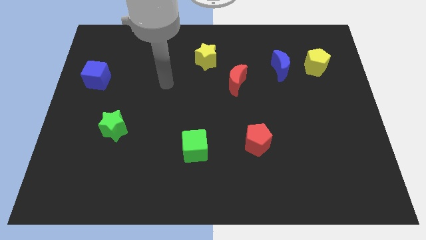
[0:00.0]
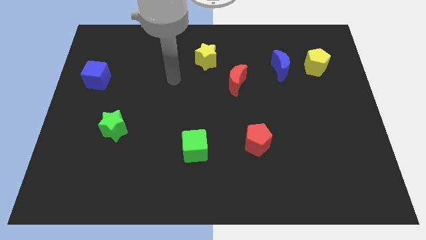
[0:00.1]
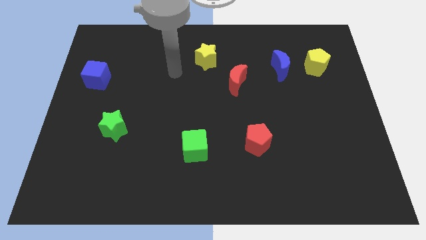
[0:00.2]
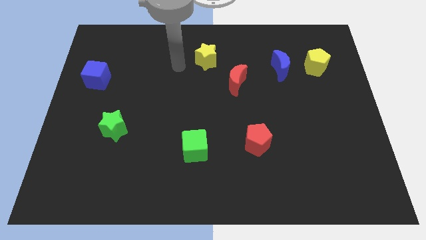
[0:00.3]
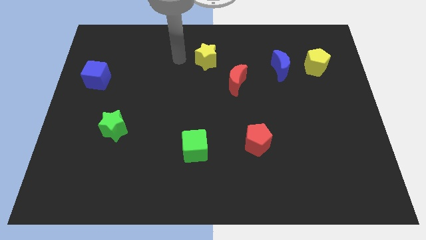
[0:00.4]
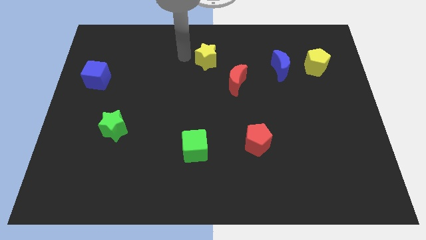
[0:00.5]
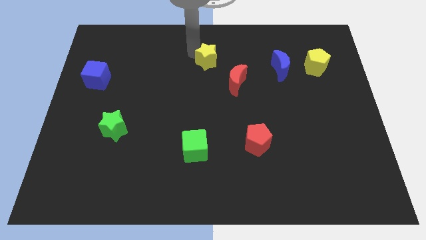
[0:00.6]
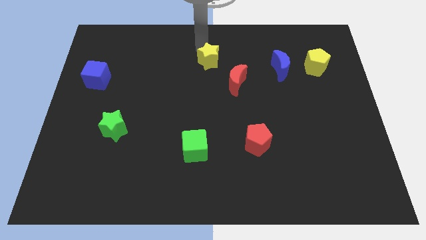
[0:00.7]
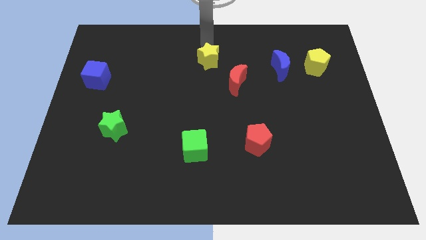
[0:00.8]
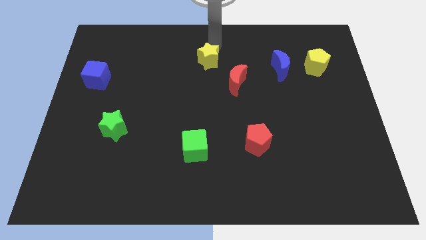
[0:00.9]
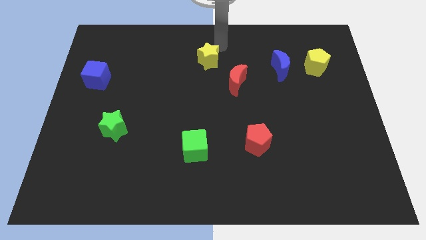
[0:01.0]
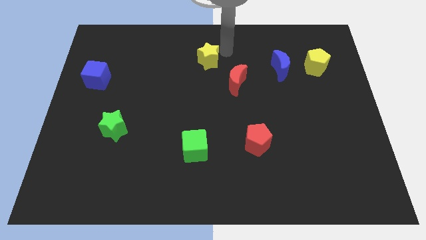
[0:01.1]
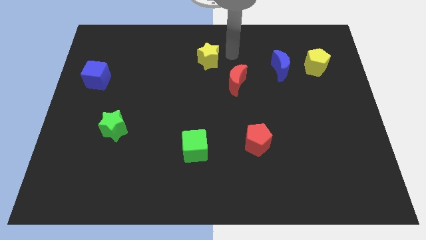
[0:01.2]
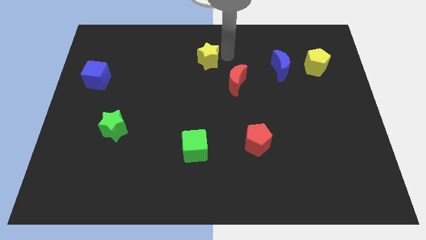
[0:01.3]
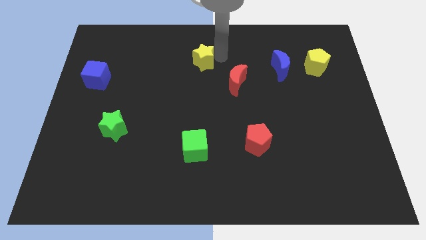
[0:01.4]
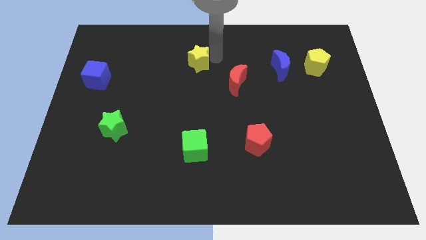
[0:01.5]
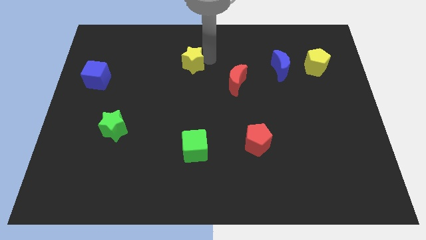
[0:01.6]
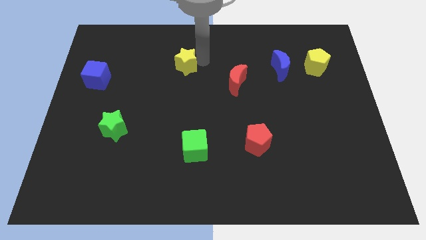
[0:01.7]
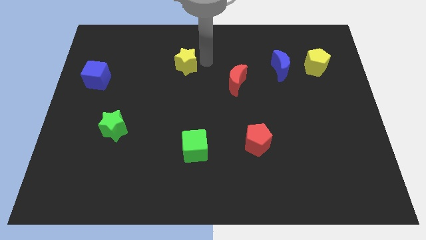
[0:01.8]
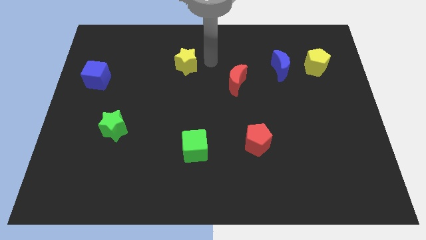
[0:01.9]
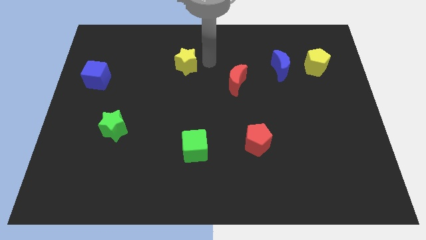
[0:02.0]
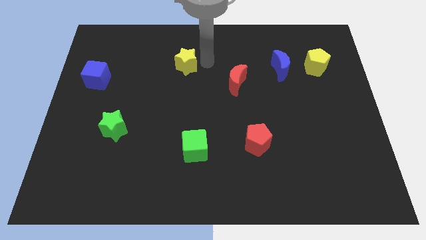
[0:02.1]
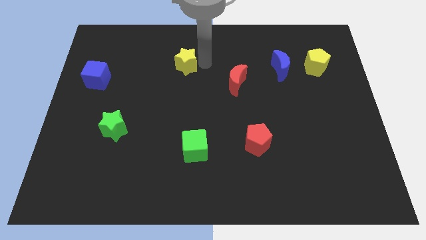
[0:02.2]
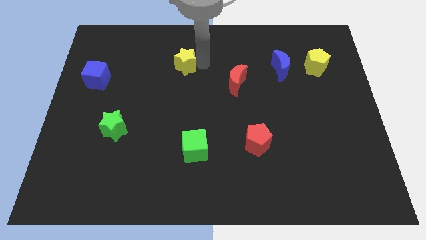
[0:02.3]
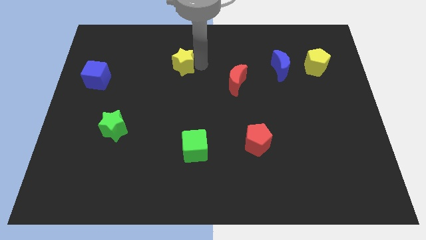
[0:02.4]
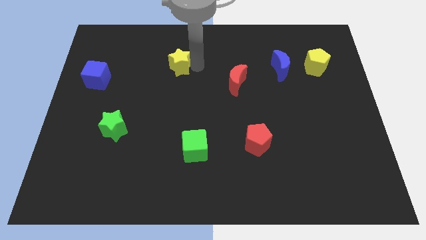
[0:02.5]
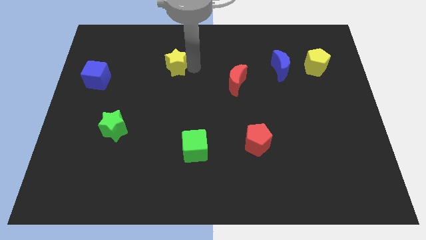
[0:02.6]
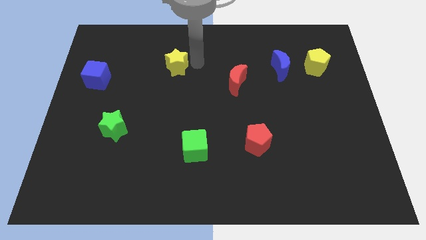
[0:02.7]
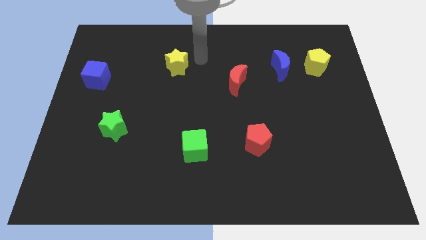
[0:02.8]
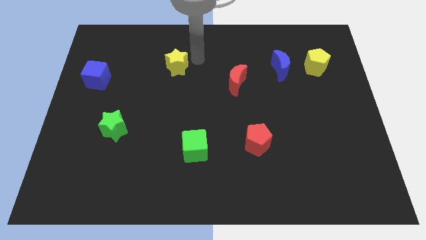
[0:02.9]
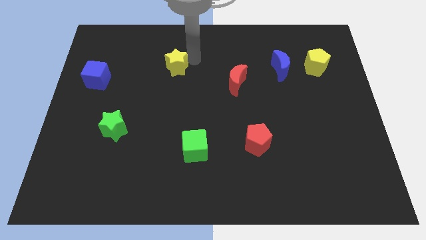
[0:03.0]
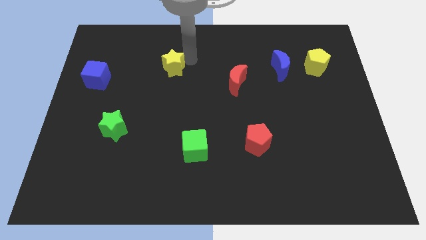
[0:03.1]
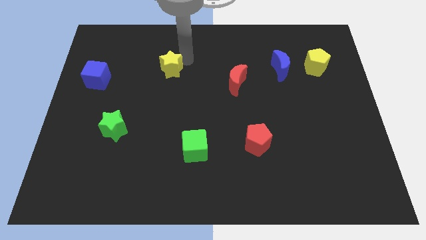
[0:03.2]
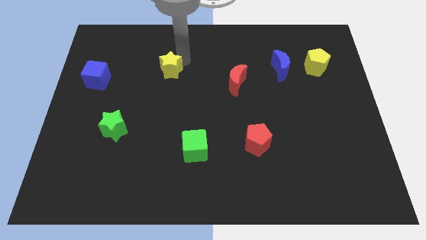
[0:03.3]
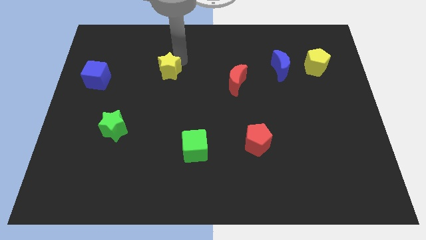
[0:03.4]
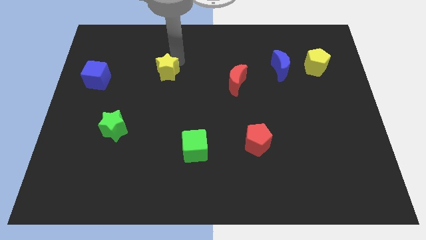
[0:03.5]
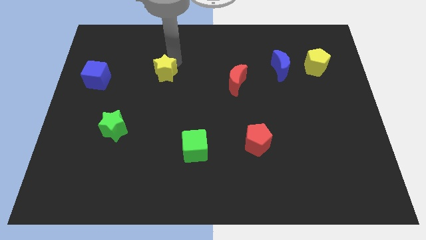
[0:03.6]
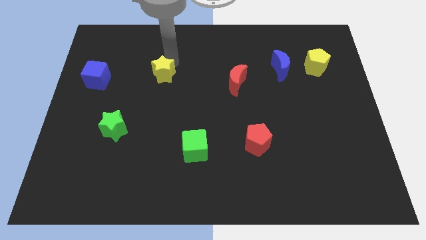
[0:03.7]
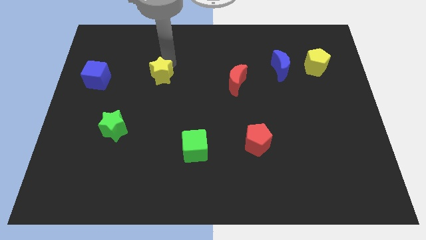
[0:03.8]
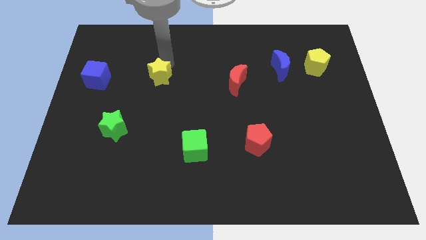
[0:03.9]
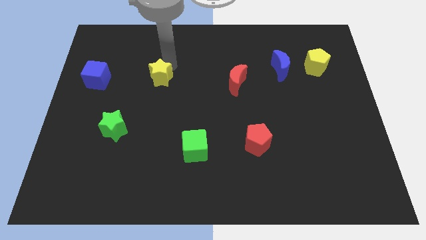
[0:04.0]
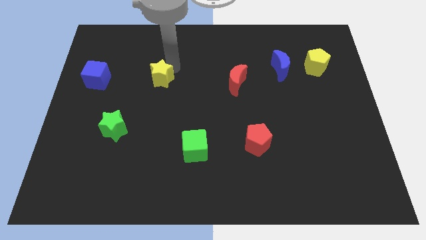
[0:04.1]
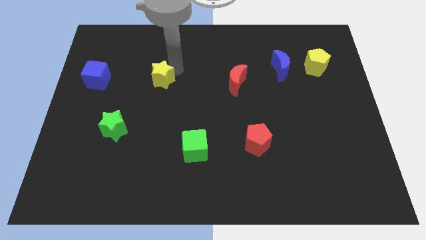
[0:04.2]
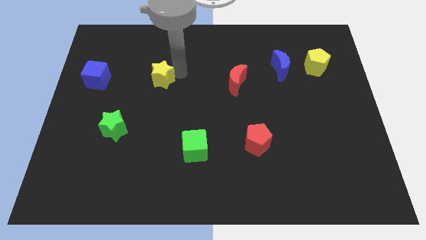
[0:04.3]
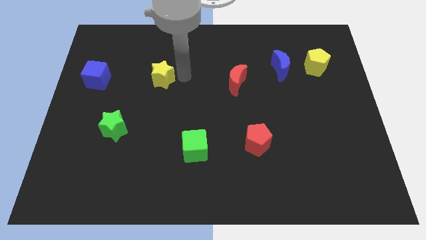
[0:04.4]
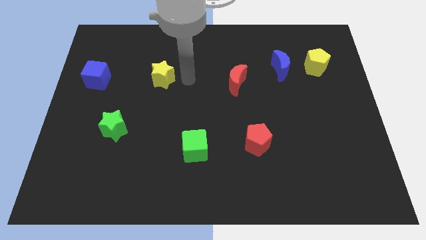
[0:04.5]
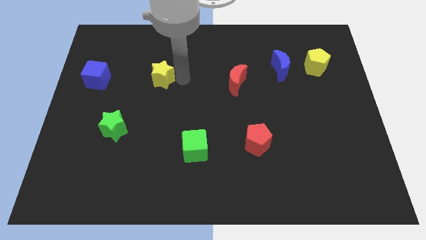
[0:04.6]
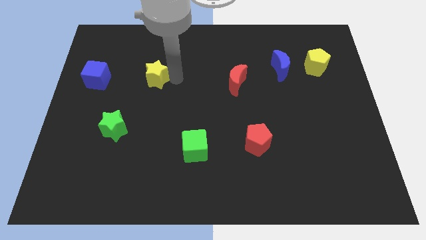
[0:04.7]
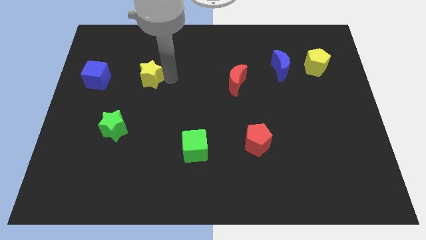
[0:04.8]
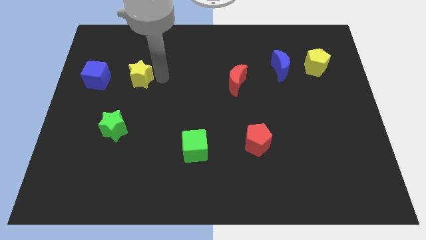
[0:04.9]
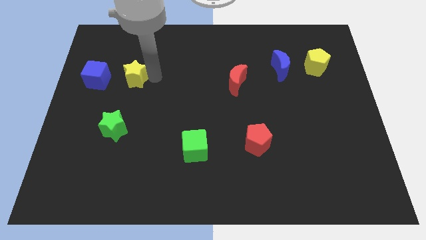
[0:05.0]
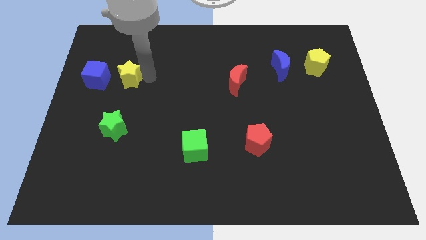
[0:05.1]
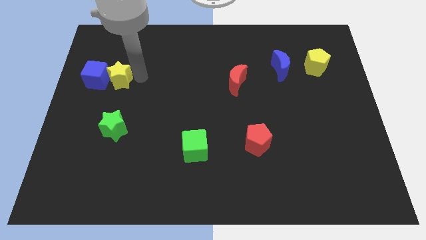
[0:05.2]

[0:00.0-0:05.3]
move the yellow star next to the blue cube

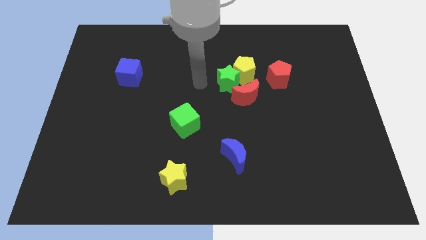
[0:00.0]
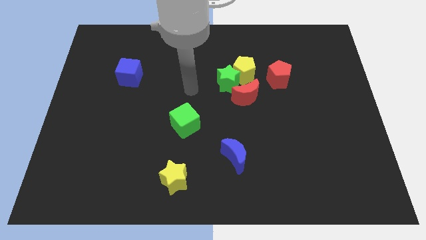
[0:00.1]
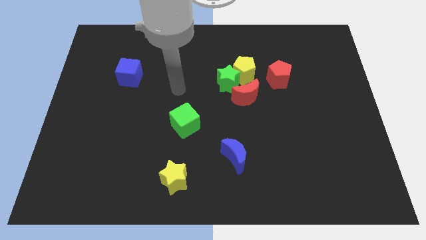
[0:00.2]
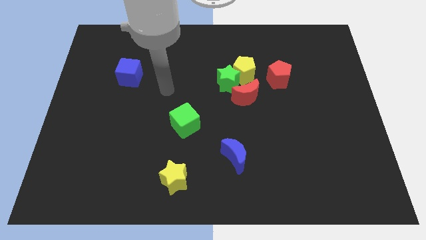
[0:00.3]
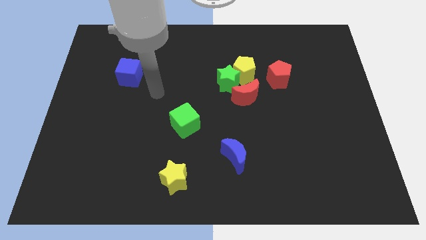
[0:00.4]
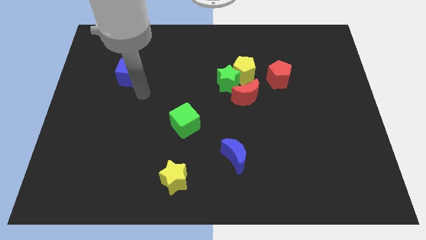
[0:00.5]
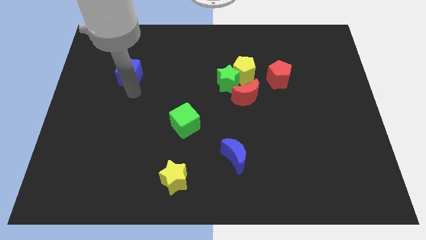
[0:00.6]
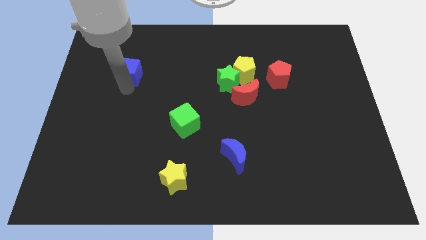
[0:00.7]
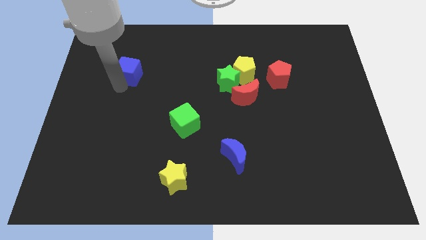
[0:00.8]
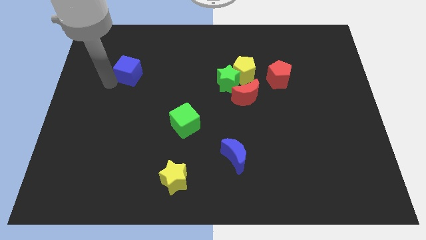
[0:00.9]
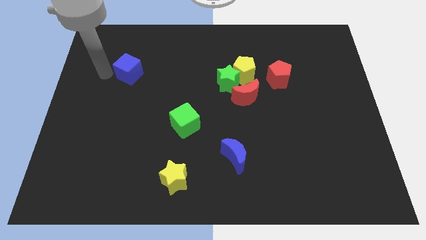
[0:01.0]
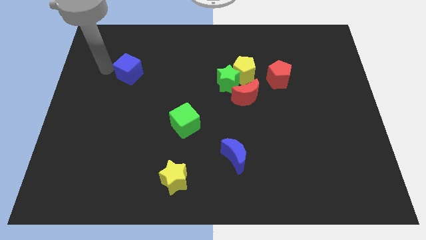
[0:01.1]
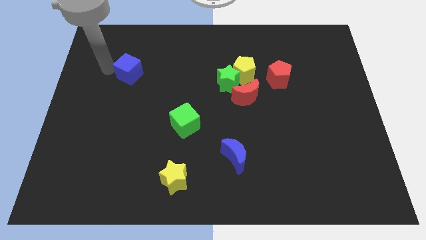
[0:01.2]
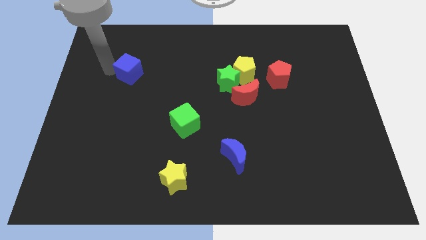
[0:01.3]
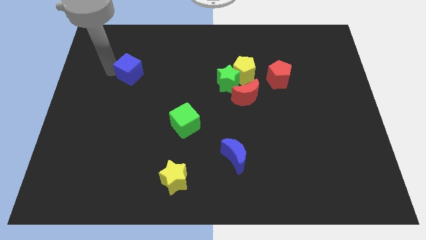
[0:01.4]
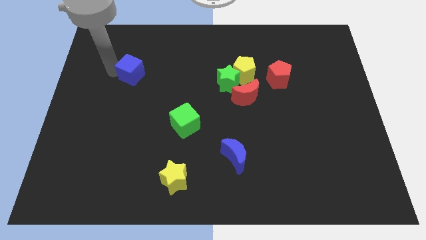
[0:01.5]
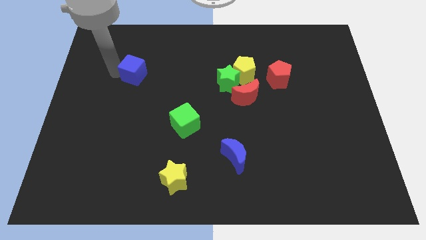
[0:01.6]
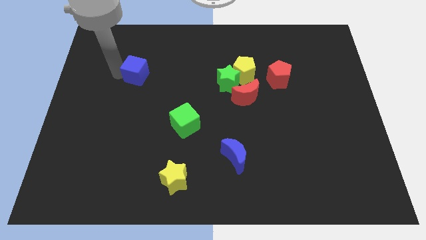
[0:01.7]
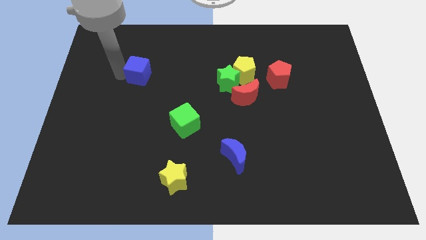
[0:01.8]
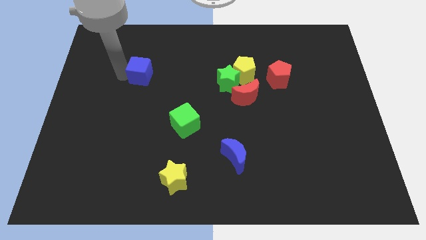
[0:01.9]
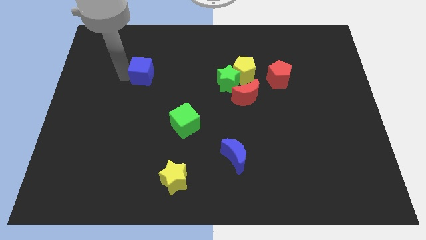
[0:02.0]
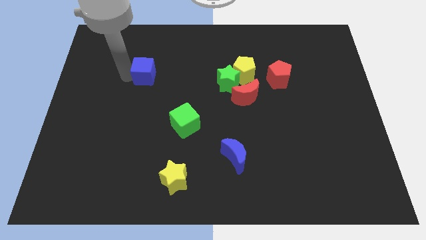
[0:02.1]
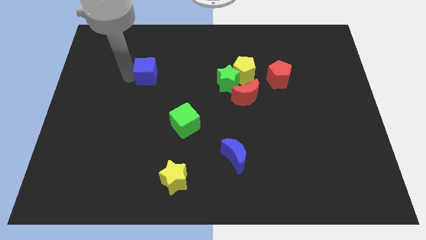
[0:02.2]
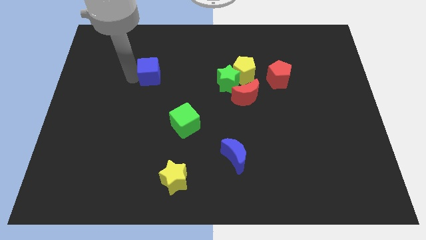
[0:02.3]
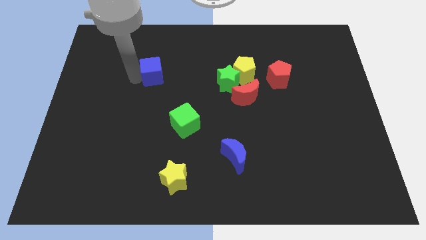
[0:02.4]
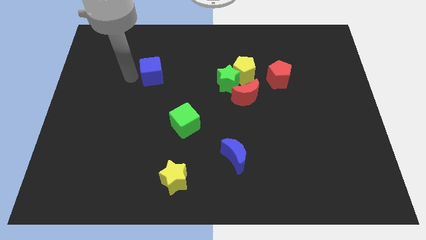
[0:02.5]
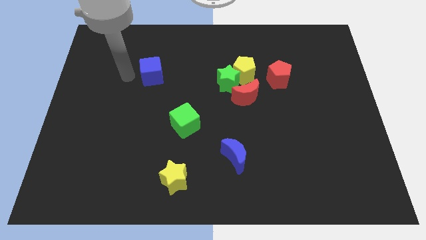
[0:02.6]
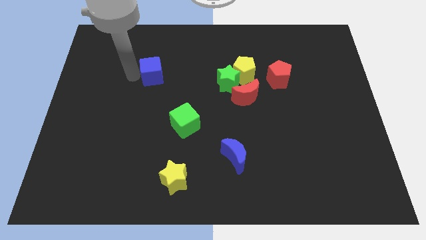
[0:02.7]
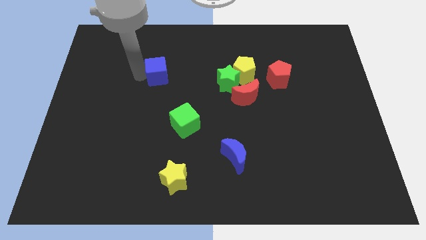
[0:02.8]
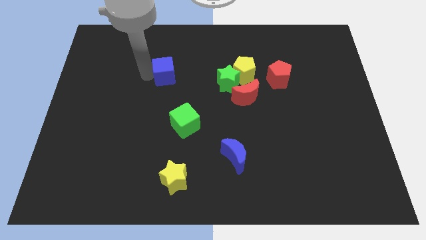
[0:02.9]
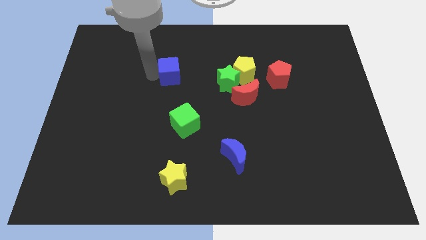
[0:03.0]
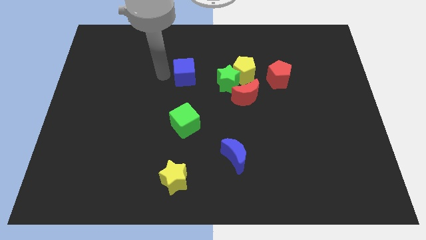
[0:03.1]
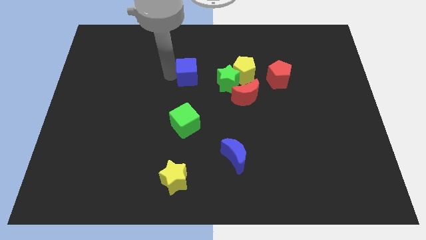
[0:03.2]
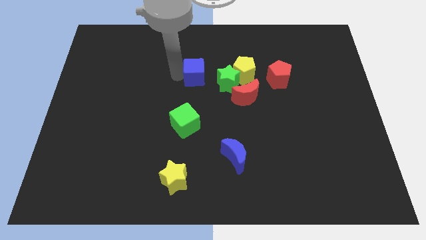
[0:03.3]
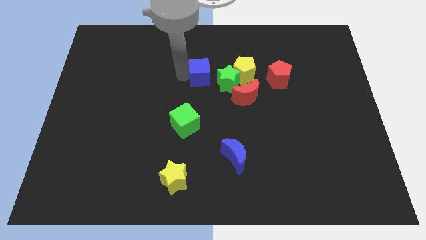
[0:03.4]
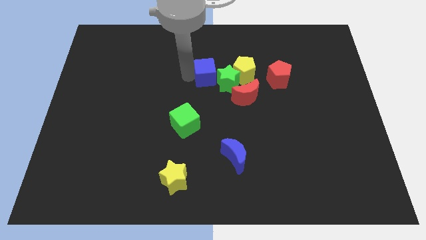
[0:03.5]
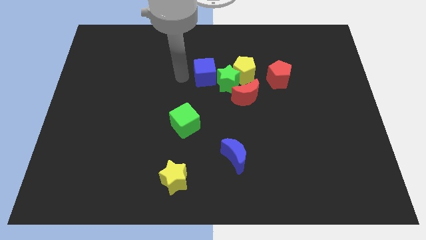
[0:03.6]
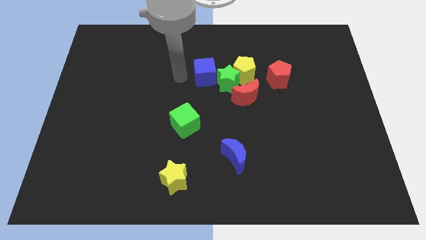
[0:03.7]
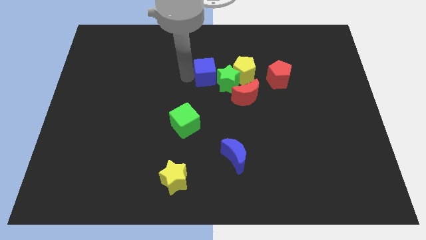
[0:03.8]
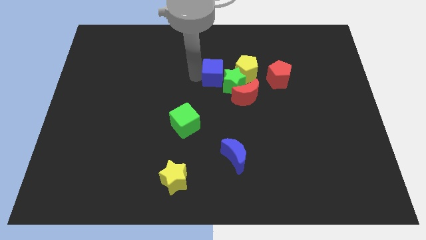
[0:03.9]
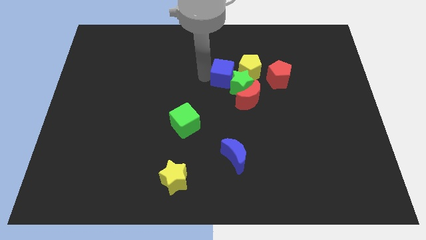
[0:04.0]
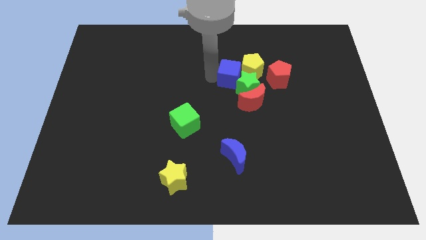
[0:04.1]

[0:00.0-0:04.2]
push the blue cube towards the yellow pentagon
